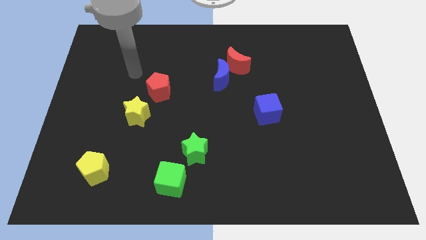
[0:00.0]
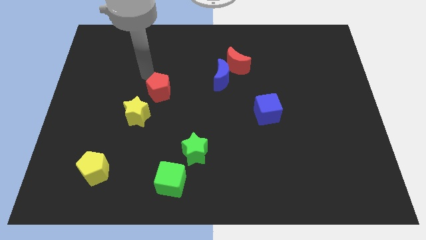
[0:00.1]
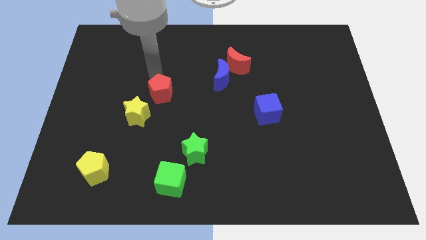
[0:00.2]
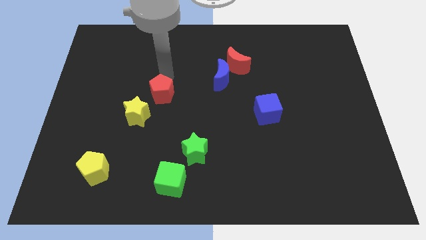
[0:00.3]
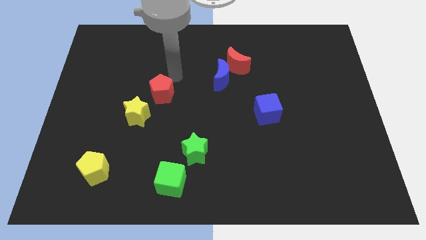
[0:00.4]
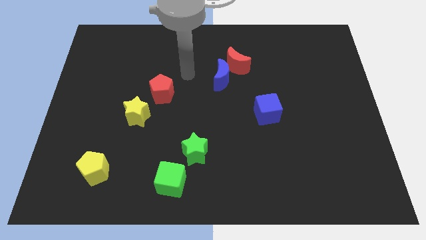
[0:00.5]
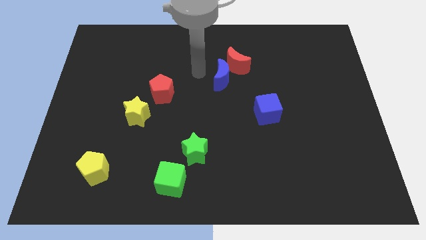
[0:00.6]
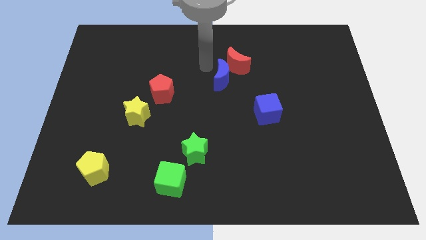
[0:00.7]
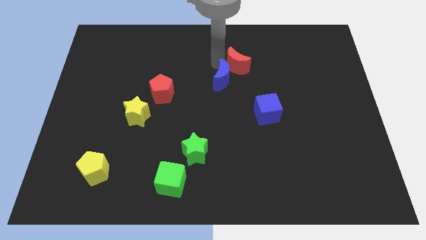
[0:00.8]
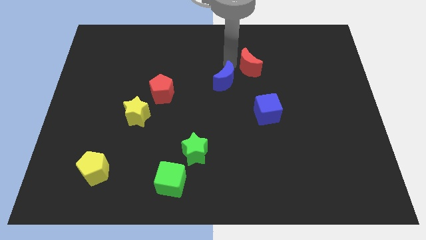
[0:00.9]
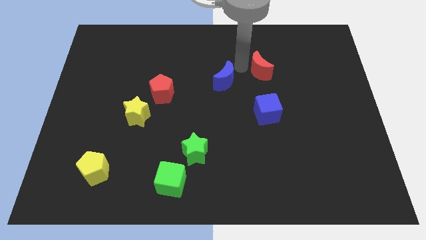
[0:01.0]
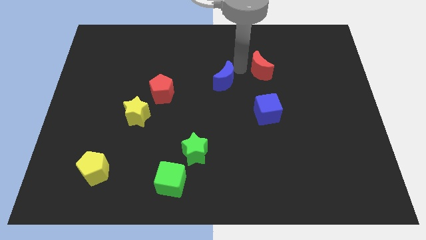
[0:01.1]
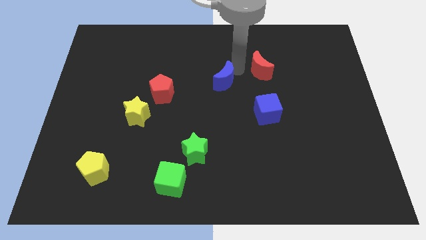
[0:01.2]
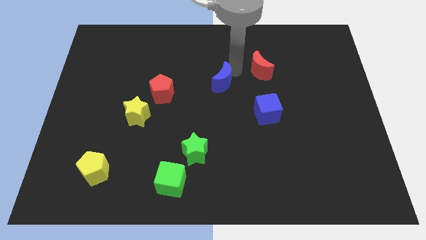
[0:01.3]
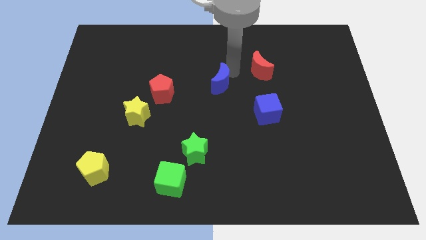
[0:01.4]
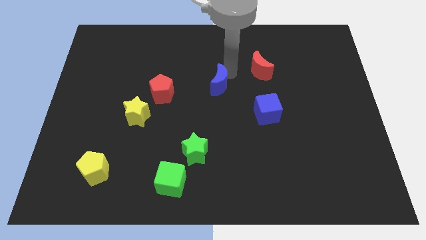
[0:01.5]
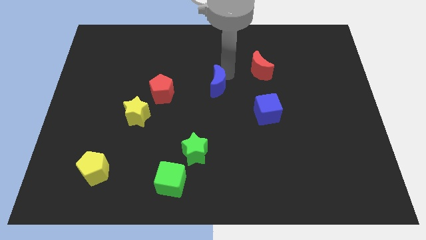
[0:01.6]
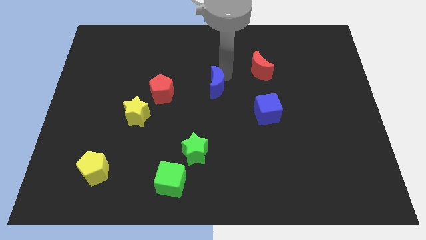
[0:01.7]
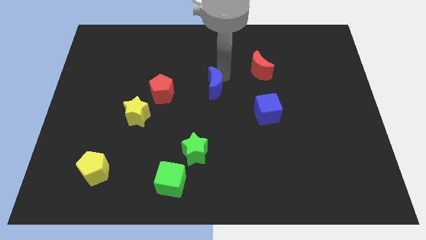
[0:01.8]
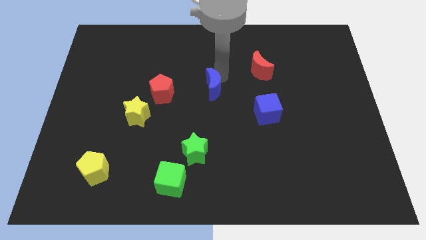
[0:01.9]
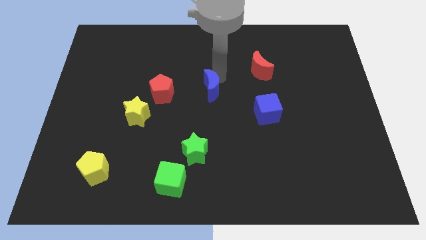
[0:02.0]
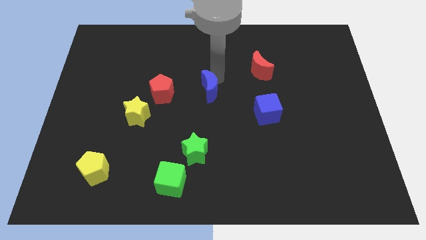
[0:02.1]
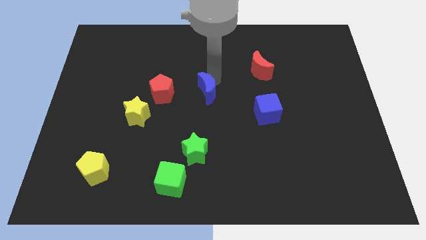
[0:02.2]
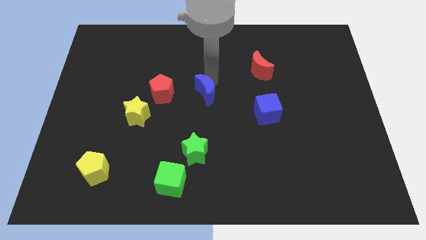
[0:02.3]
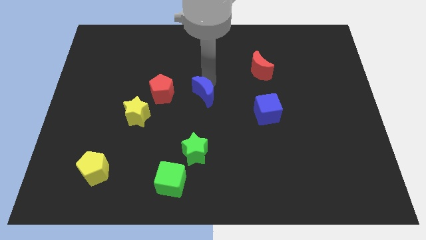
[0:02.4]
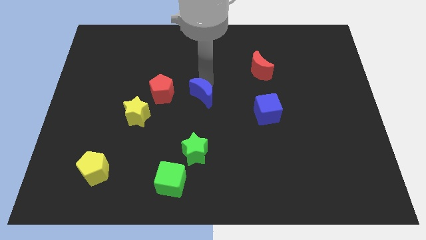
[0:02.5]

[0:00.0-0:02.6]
put the blue moon to the top side of the green star

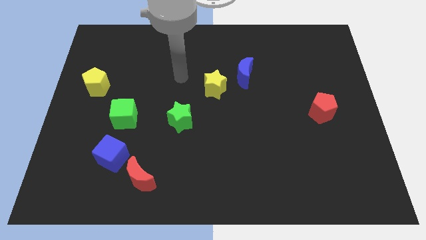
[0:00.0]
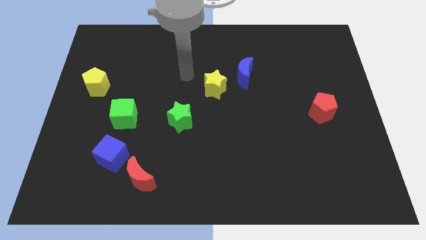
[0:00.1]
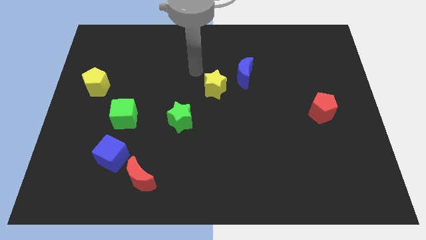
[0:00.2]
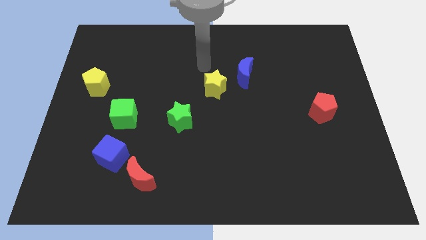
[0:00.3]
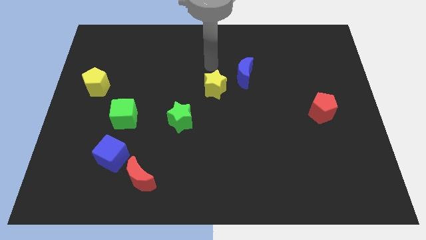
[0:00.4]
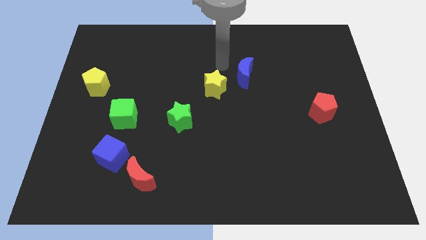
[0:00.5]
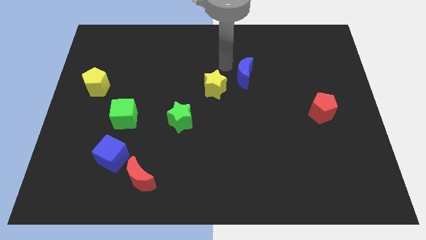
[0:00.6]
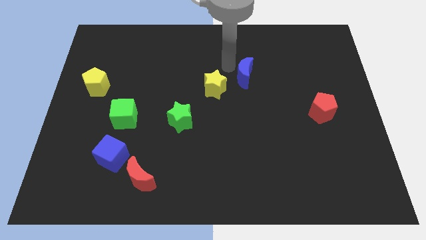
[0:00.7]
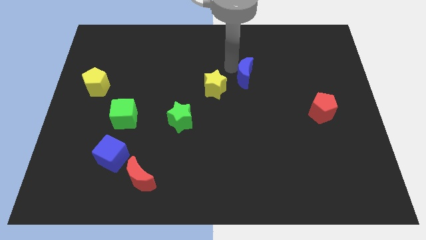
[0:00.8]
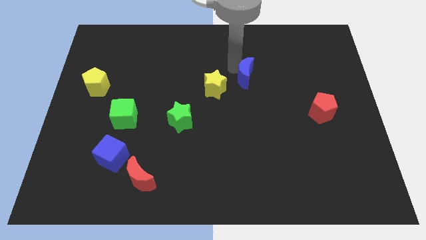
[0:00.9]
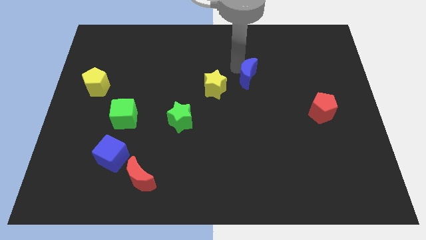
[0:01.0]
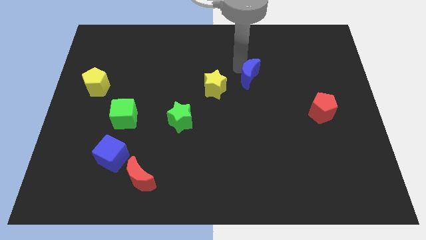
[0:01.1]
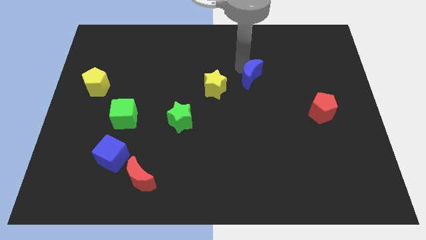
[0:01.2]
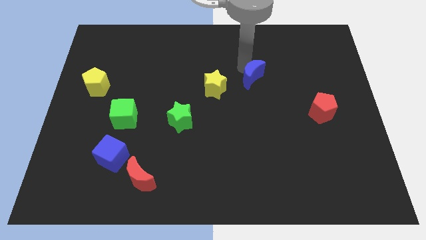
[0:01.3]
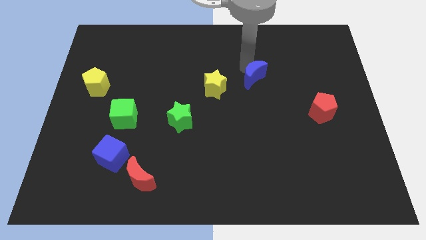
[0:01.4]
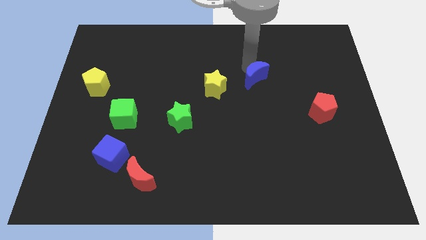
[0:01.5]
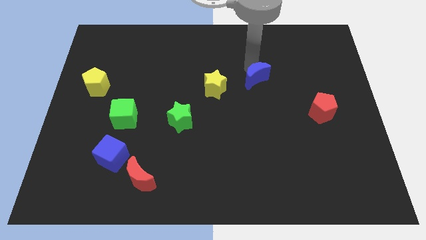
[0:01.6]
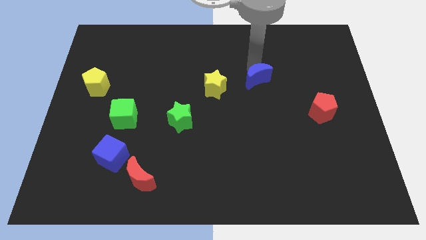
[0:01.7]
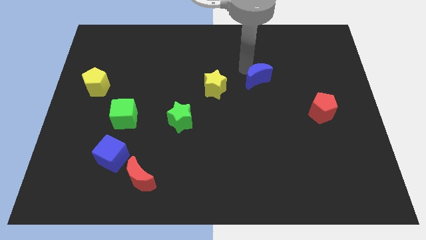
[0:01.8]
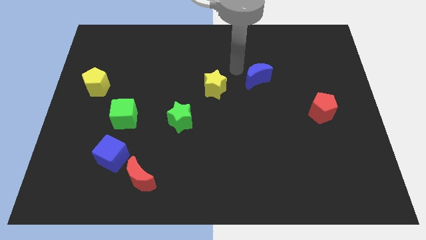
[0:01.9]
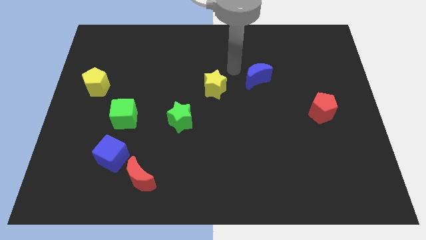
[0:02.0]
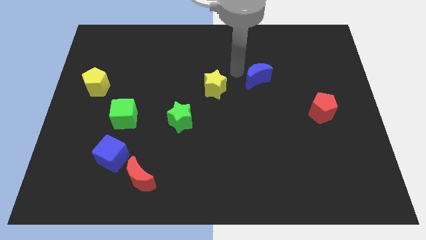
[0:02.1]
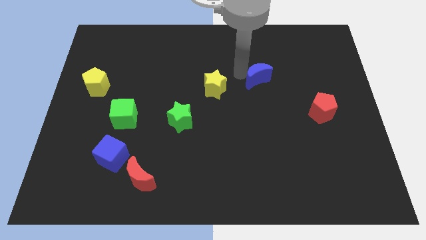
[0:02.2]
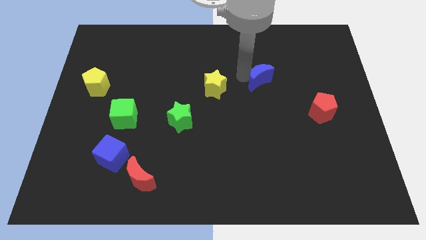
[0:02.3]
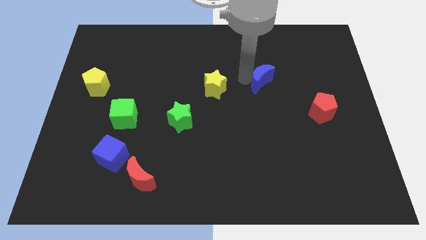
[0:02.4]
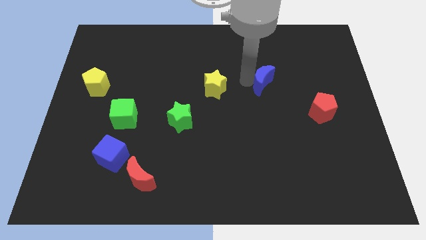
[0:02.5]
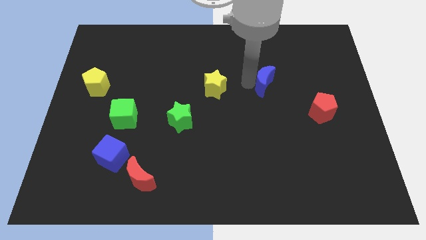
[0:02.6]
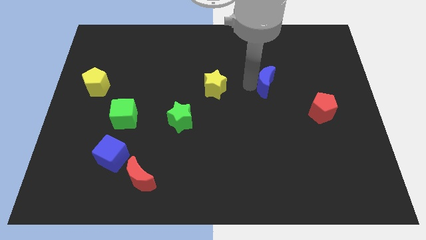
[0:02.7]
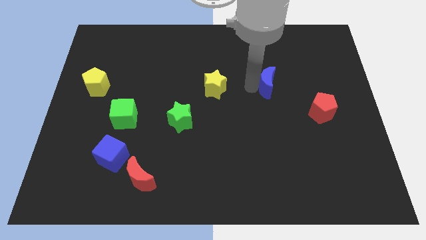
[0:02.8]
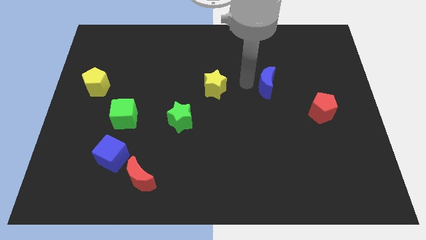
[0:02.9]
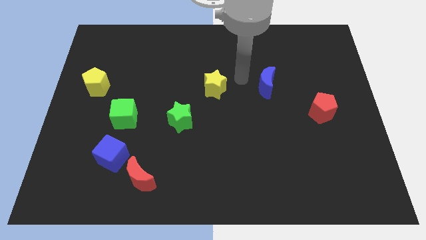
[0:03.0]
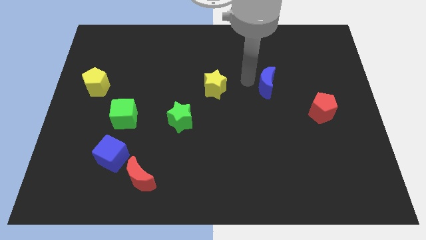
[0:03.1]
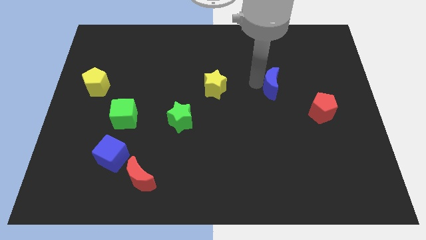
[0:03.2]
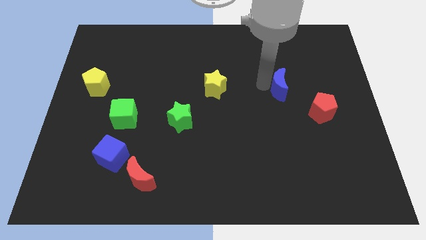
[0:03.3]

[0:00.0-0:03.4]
slide the blue moon to the top left side of the red pentagon

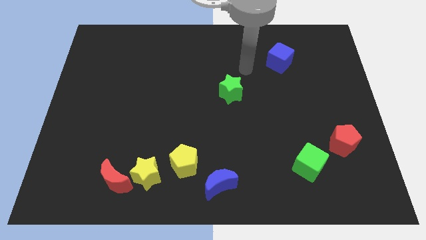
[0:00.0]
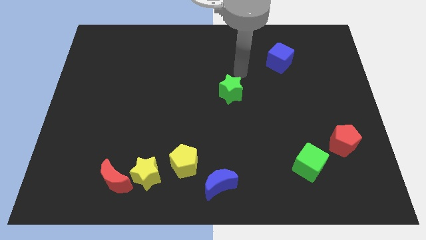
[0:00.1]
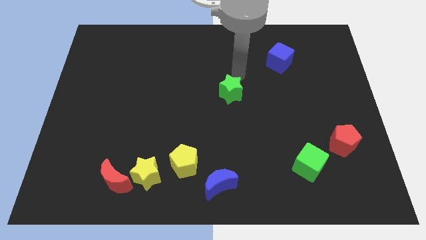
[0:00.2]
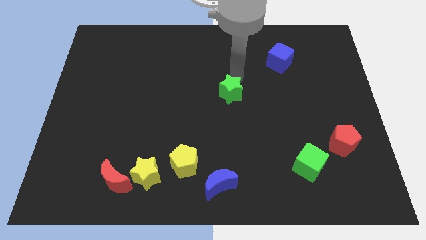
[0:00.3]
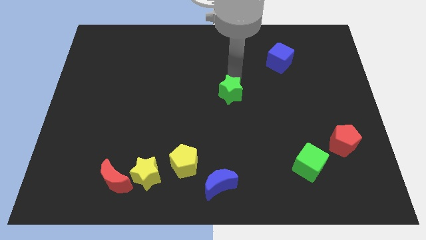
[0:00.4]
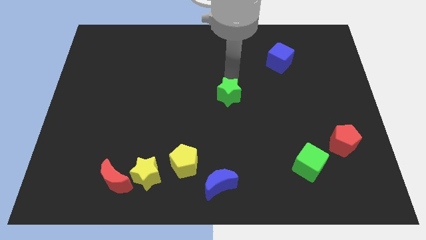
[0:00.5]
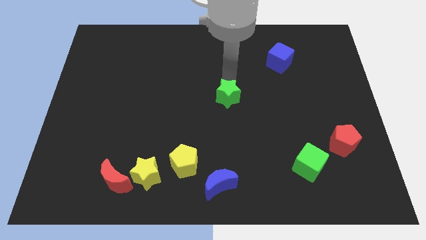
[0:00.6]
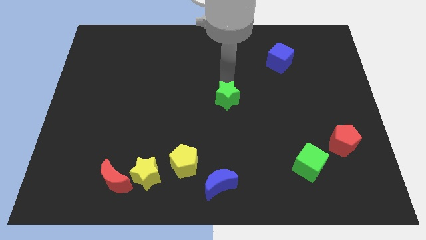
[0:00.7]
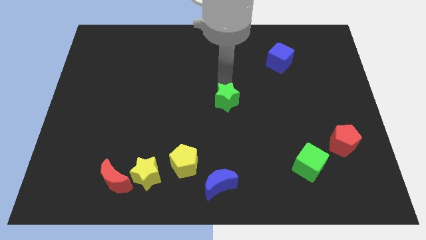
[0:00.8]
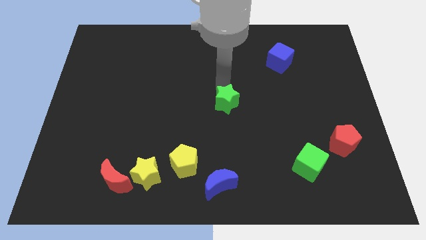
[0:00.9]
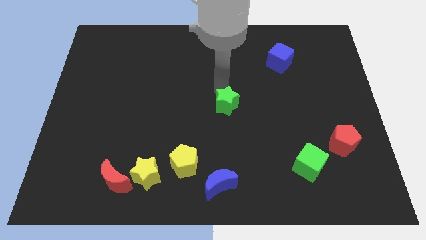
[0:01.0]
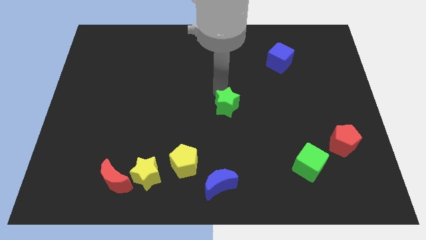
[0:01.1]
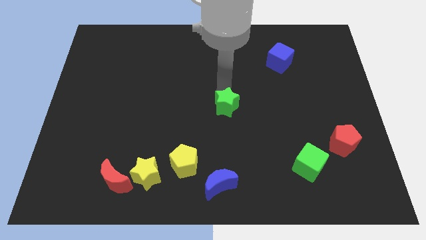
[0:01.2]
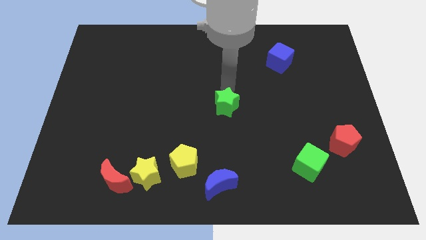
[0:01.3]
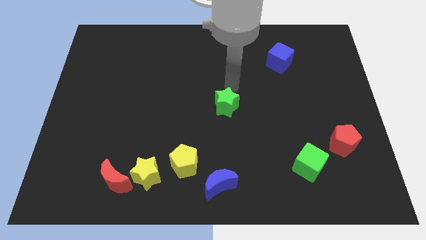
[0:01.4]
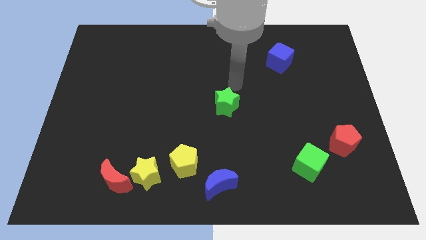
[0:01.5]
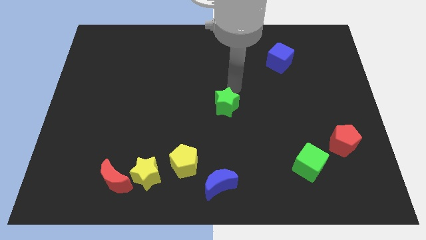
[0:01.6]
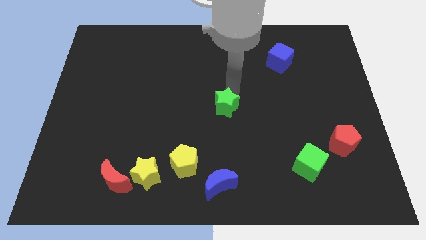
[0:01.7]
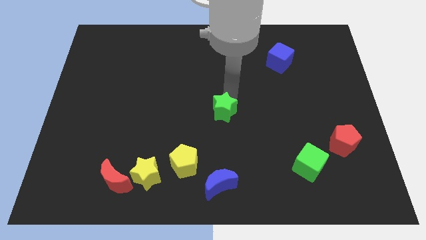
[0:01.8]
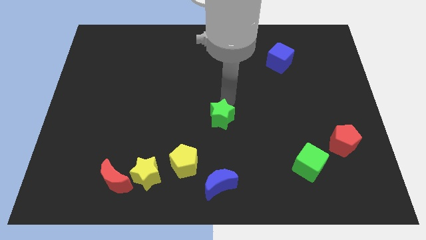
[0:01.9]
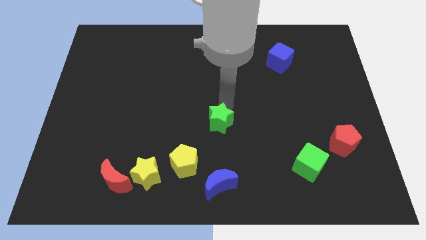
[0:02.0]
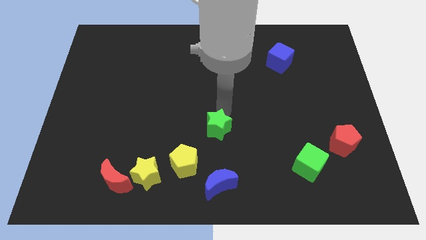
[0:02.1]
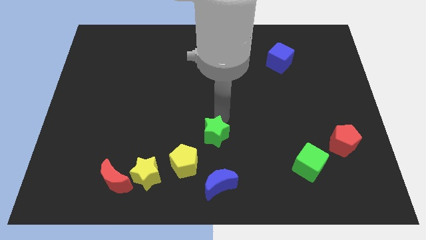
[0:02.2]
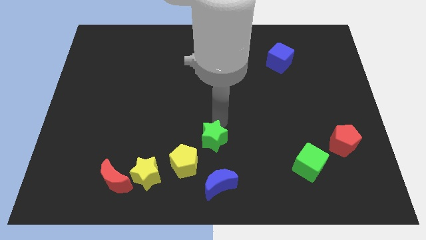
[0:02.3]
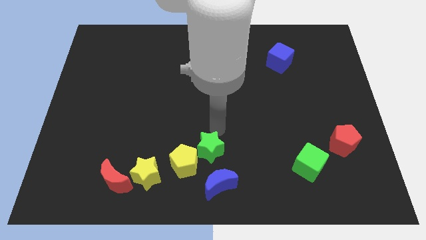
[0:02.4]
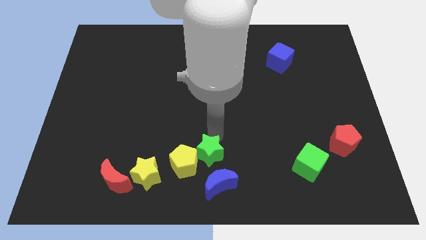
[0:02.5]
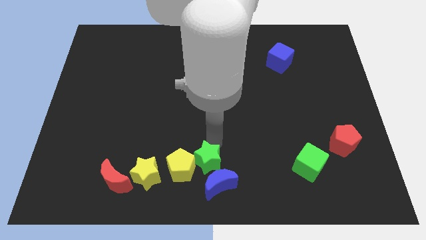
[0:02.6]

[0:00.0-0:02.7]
move the green star to the right side of the yellow star
